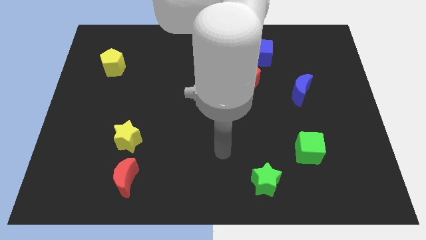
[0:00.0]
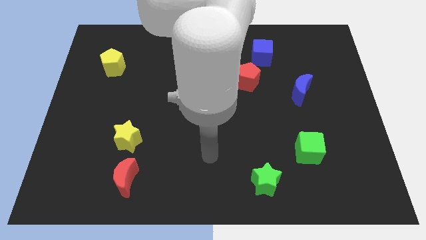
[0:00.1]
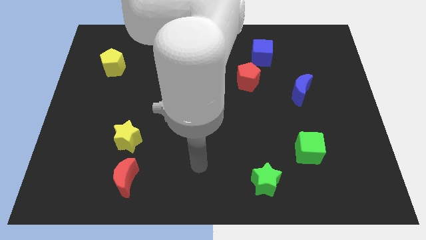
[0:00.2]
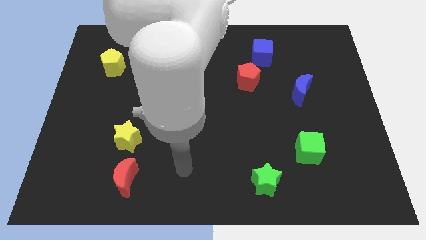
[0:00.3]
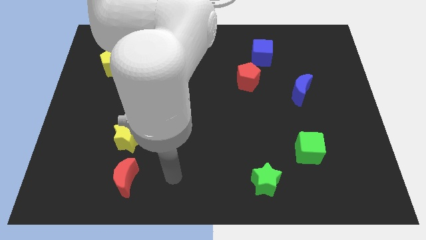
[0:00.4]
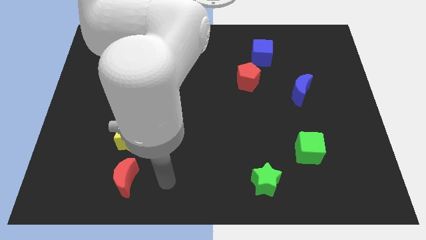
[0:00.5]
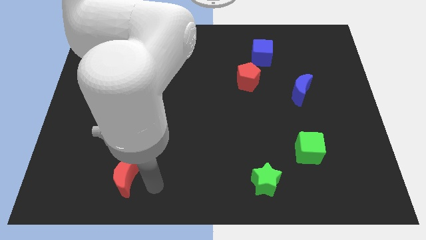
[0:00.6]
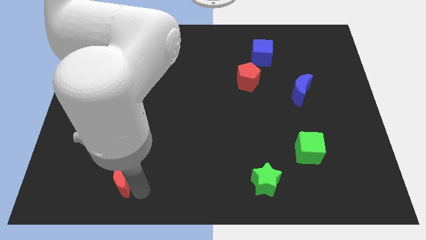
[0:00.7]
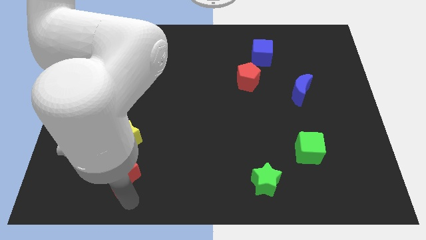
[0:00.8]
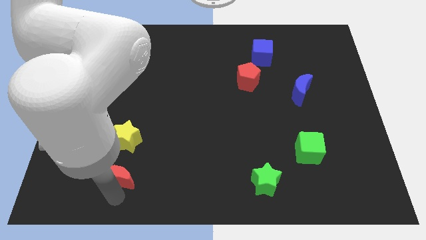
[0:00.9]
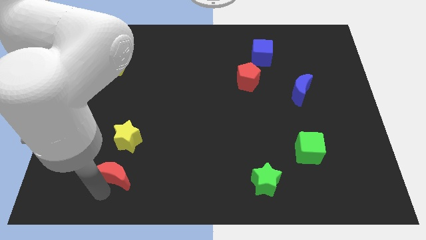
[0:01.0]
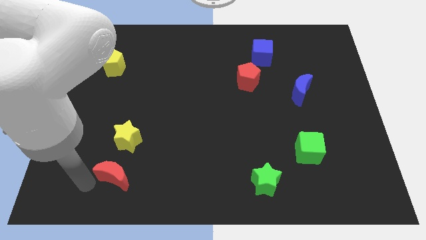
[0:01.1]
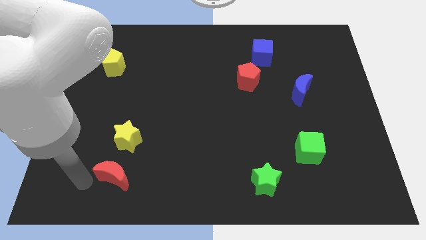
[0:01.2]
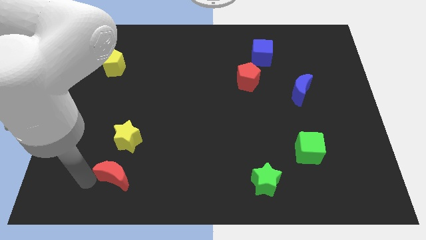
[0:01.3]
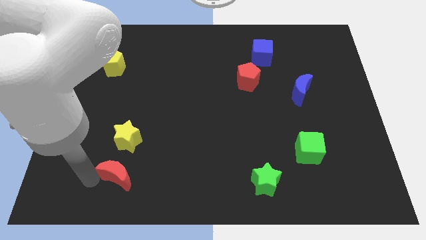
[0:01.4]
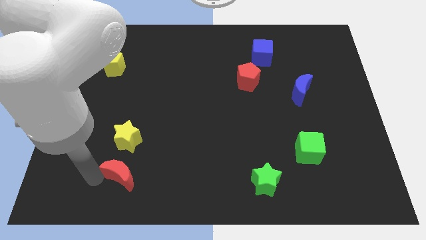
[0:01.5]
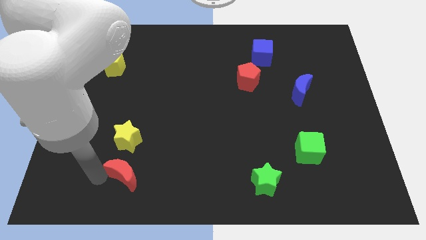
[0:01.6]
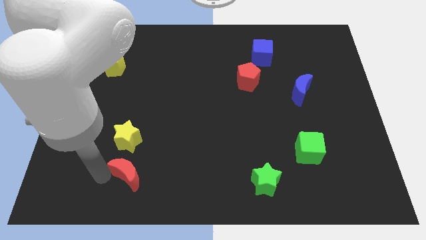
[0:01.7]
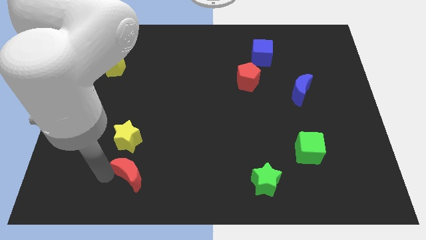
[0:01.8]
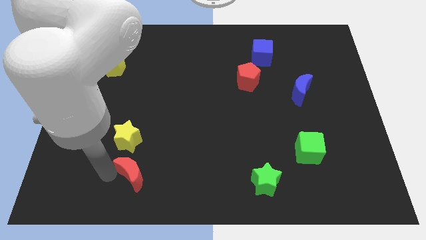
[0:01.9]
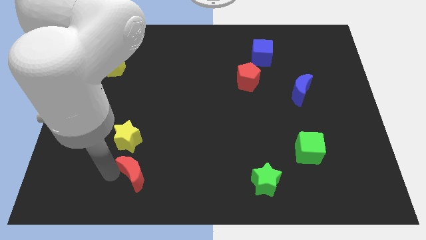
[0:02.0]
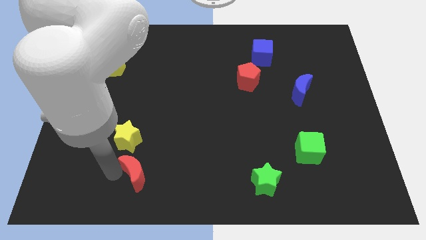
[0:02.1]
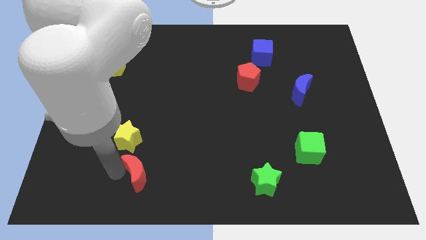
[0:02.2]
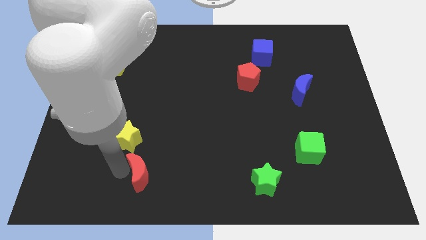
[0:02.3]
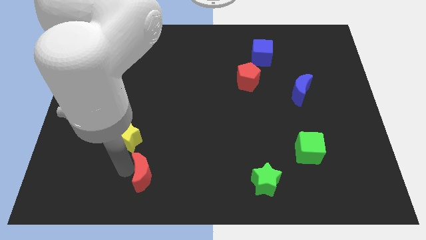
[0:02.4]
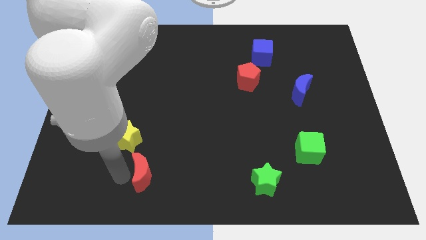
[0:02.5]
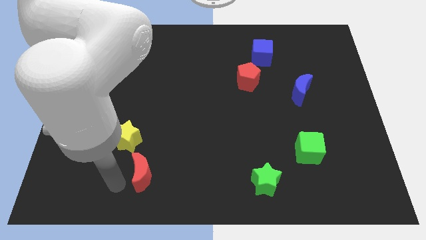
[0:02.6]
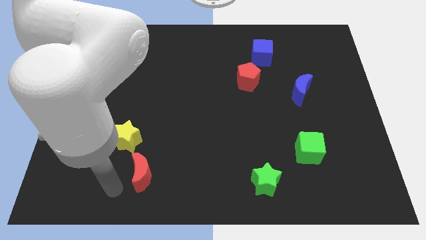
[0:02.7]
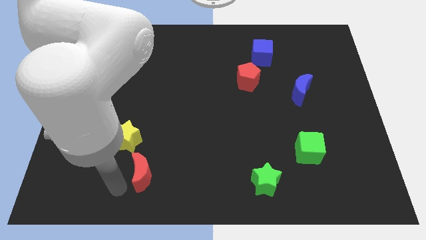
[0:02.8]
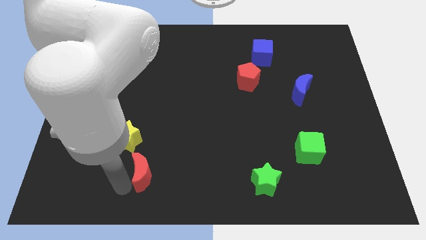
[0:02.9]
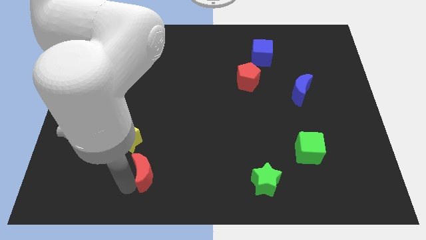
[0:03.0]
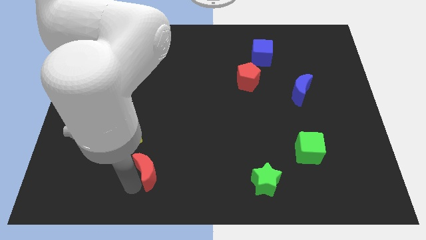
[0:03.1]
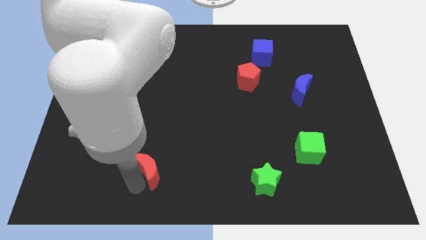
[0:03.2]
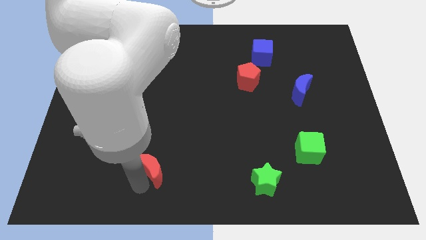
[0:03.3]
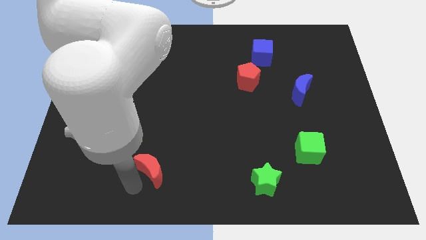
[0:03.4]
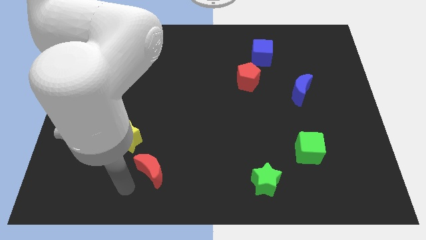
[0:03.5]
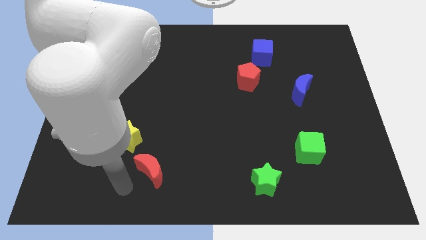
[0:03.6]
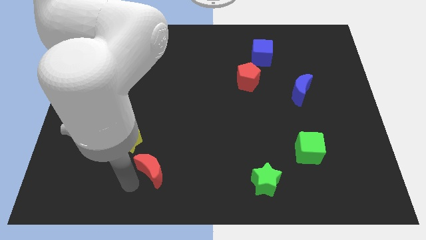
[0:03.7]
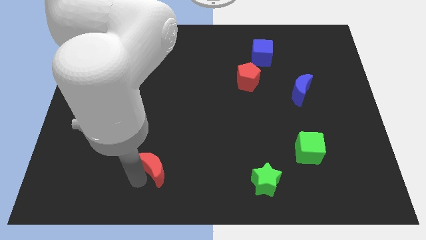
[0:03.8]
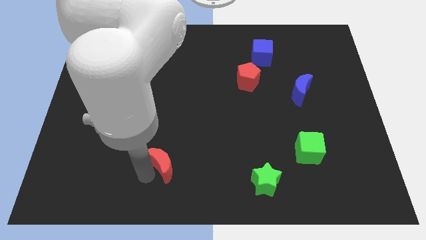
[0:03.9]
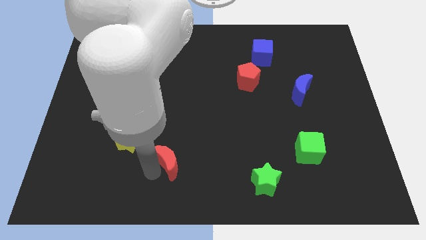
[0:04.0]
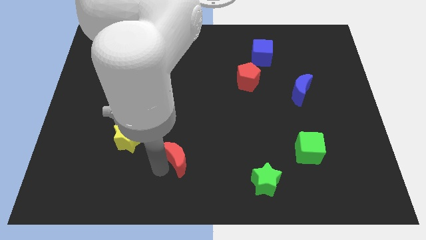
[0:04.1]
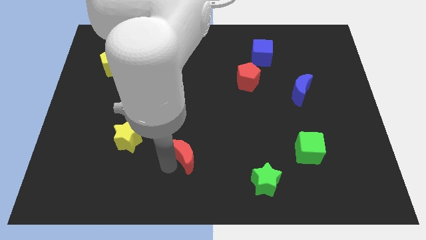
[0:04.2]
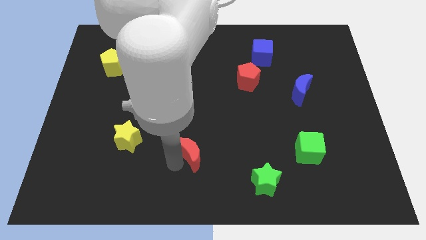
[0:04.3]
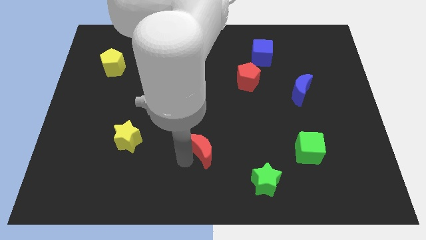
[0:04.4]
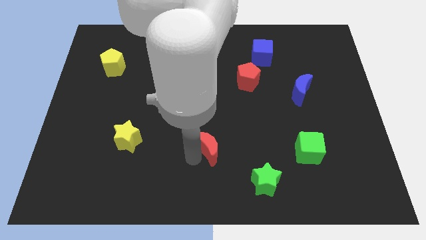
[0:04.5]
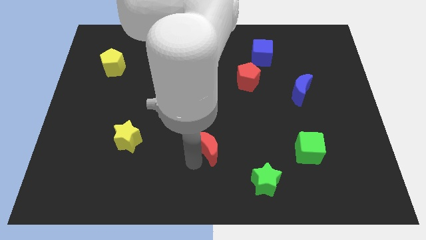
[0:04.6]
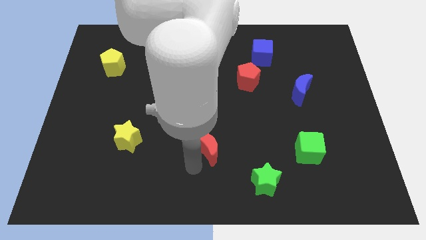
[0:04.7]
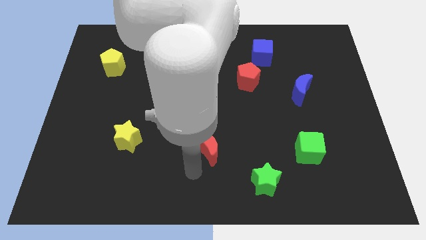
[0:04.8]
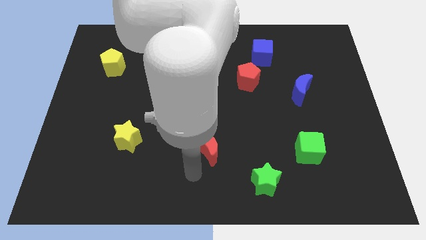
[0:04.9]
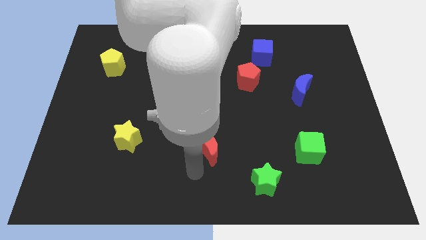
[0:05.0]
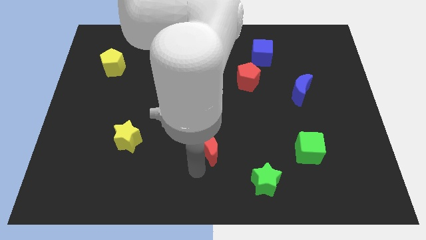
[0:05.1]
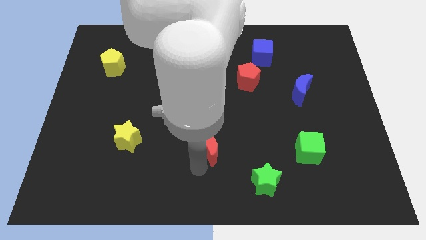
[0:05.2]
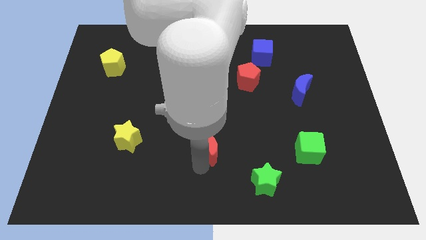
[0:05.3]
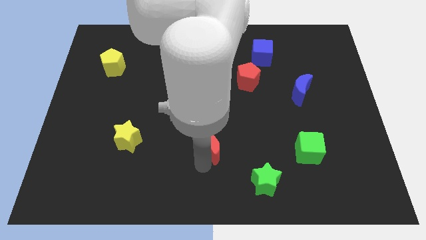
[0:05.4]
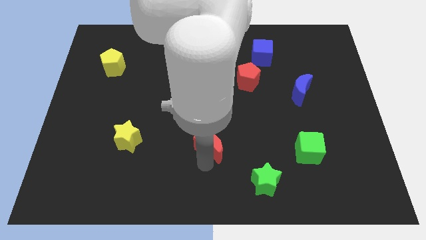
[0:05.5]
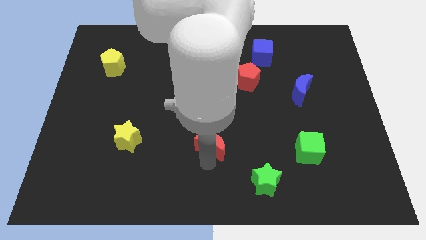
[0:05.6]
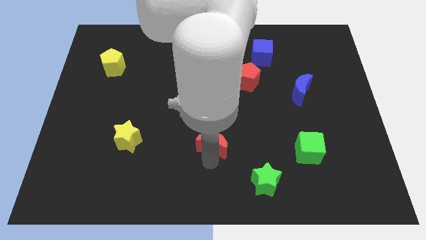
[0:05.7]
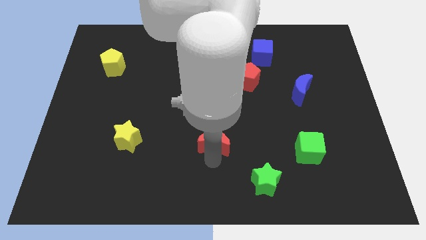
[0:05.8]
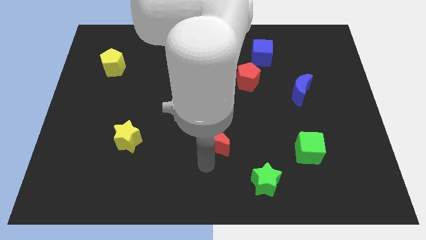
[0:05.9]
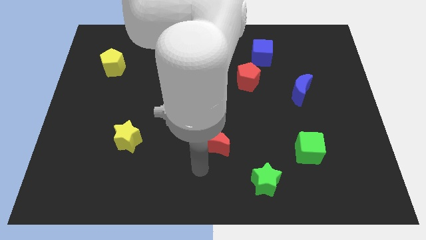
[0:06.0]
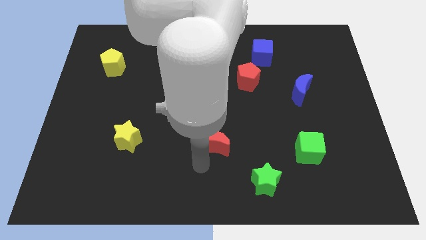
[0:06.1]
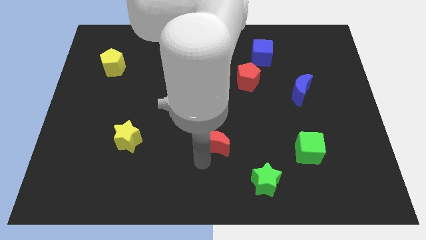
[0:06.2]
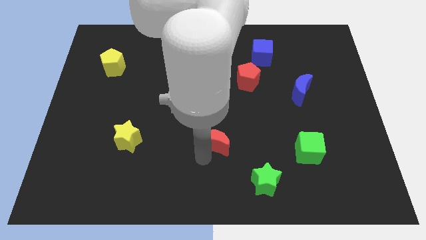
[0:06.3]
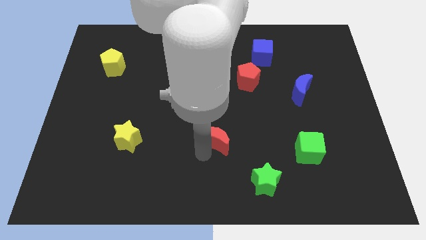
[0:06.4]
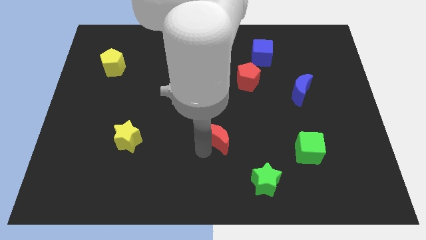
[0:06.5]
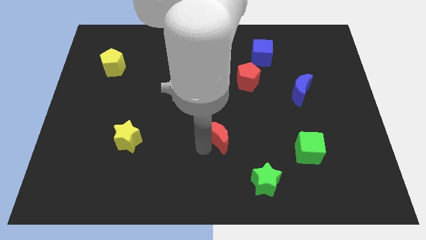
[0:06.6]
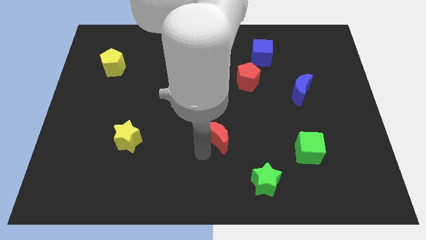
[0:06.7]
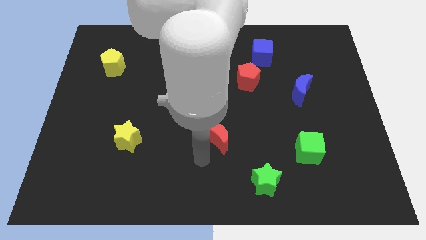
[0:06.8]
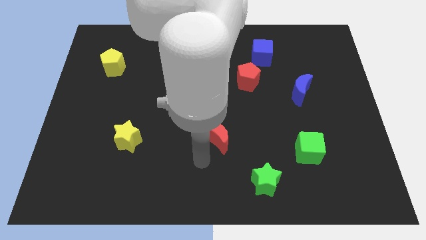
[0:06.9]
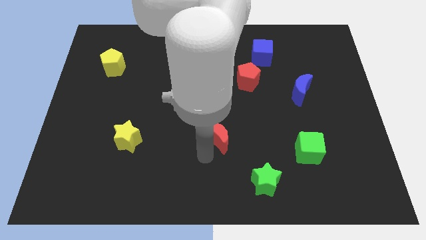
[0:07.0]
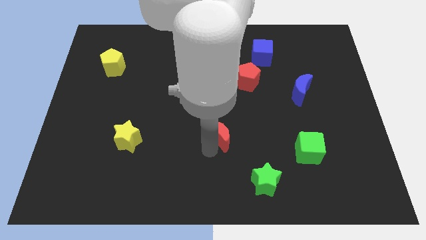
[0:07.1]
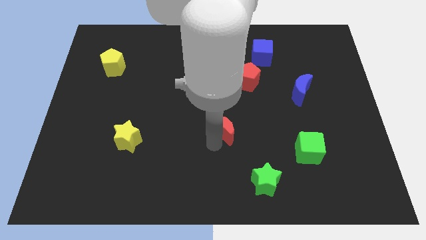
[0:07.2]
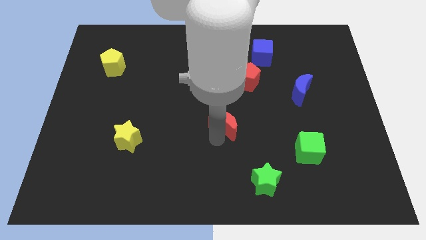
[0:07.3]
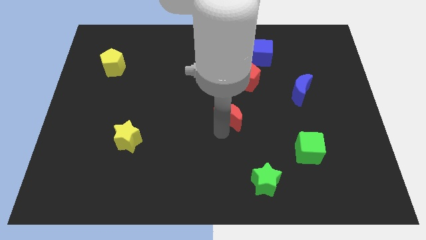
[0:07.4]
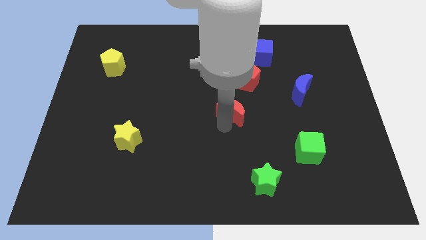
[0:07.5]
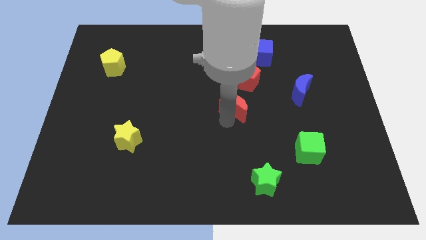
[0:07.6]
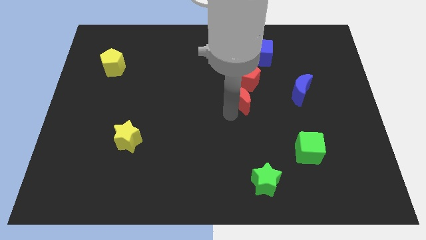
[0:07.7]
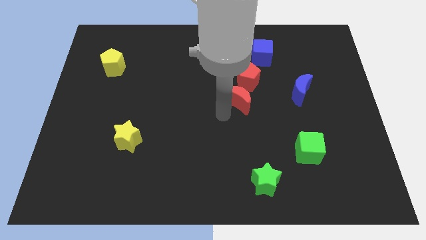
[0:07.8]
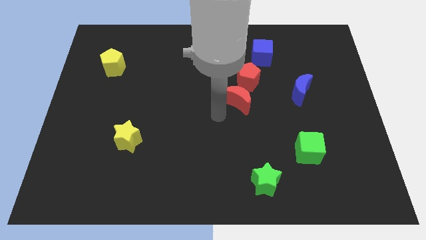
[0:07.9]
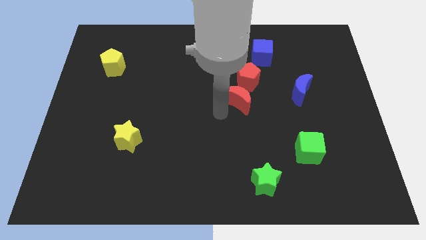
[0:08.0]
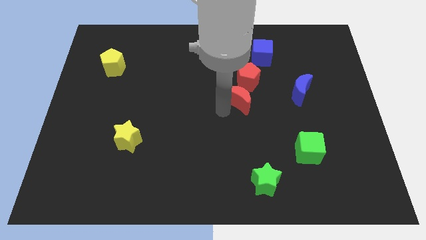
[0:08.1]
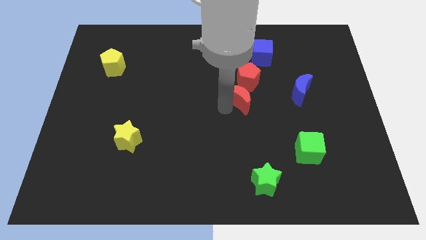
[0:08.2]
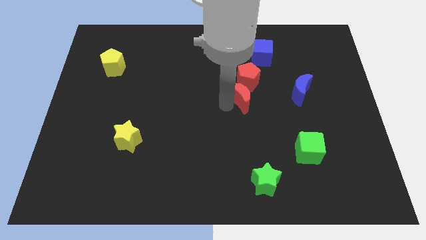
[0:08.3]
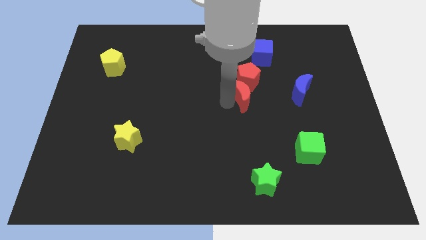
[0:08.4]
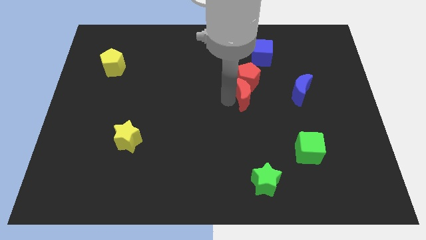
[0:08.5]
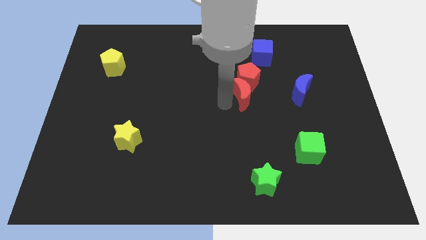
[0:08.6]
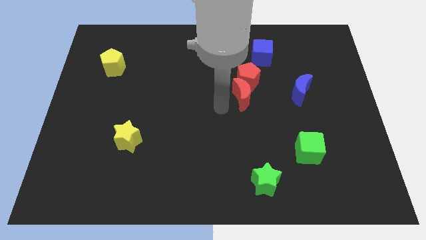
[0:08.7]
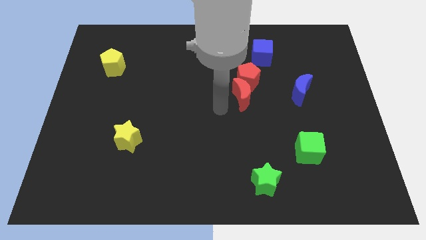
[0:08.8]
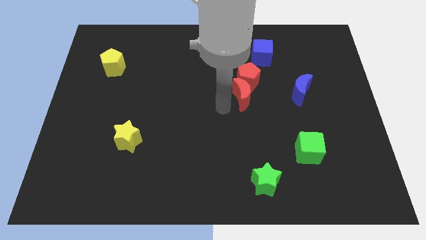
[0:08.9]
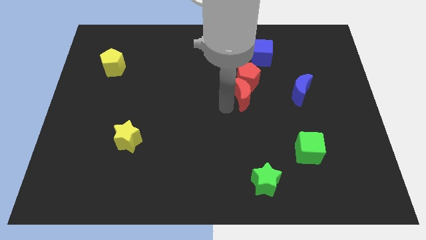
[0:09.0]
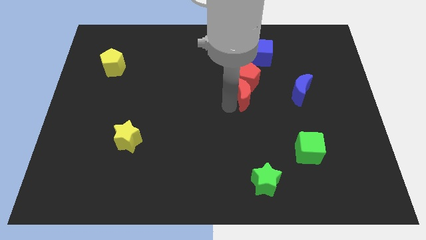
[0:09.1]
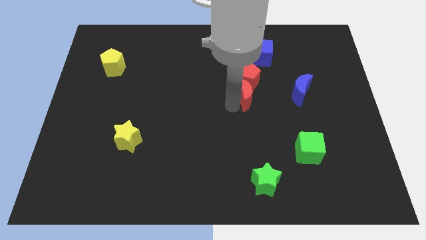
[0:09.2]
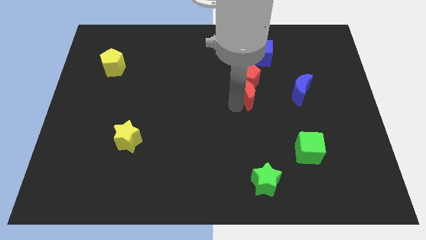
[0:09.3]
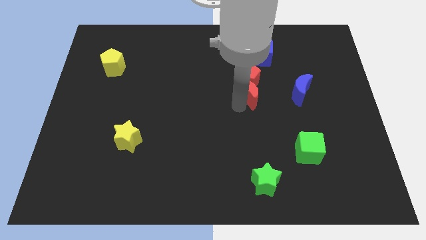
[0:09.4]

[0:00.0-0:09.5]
move the red moon to the bottom side of the blue cube
